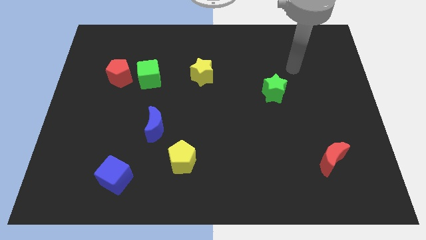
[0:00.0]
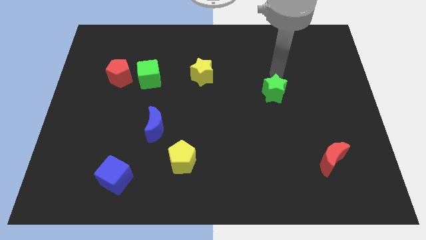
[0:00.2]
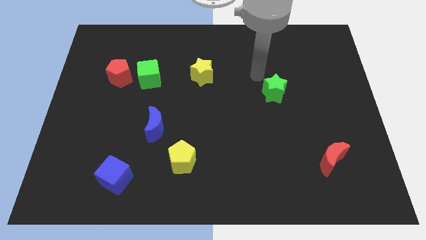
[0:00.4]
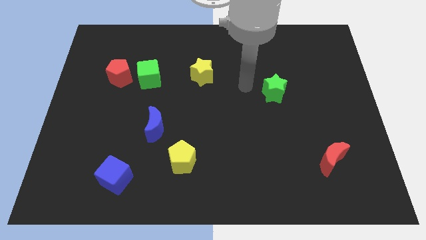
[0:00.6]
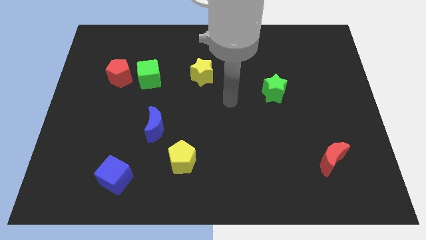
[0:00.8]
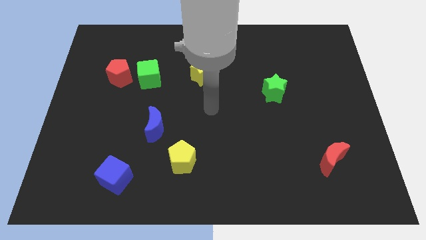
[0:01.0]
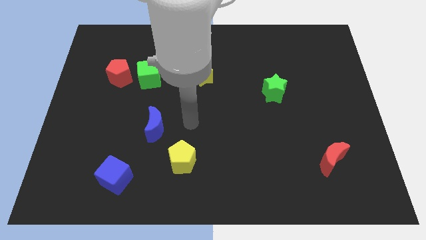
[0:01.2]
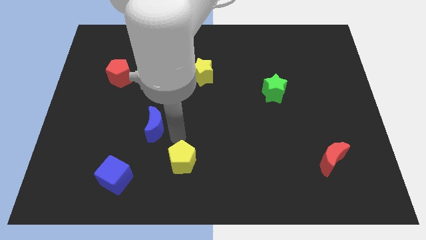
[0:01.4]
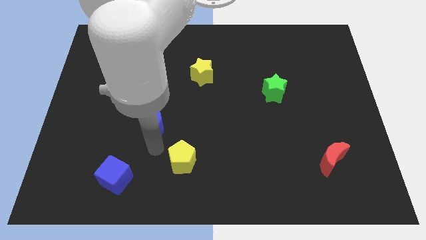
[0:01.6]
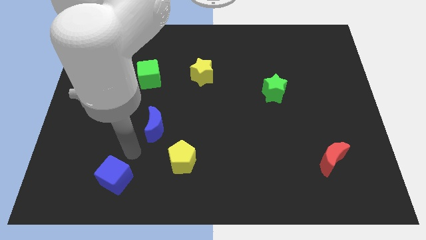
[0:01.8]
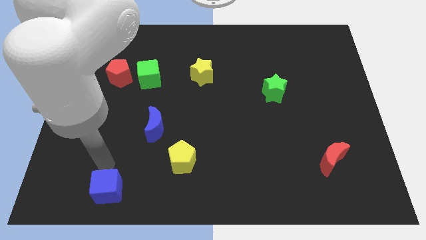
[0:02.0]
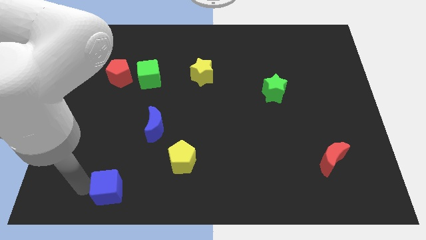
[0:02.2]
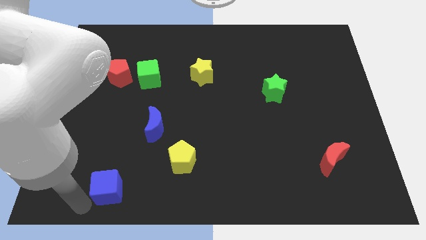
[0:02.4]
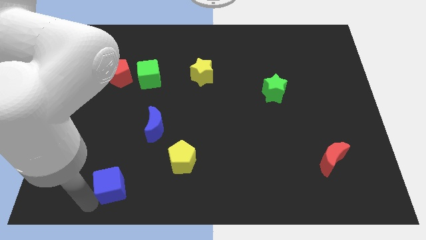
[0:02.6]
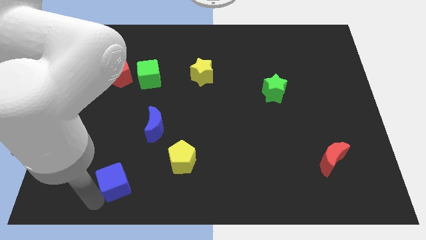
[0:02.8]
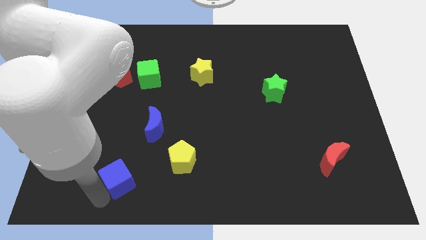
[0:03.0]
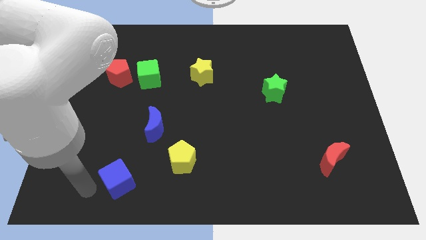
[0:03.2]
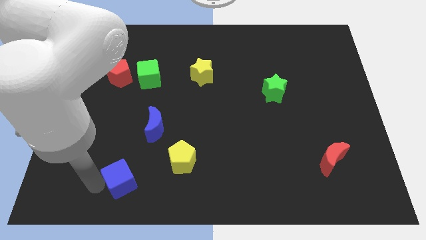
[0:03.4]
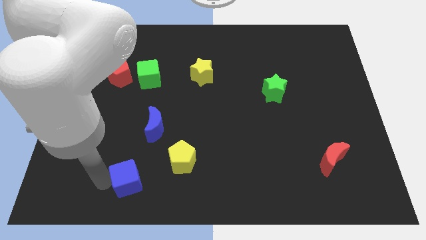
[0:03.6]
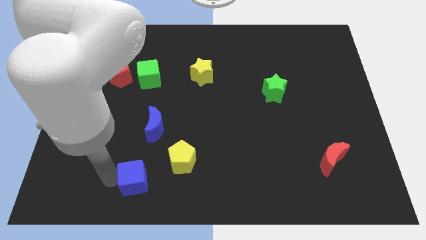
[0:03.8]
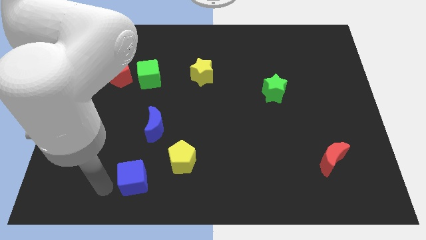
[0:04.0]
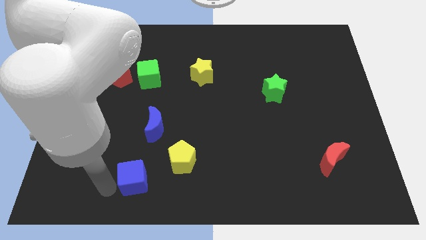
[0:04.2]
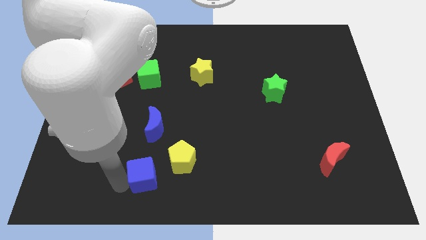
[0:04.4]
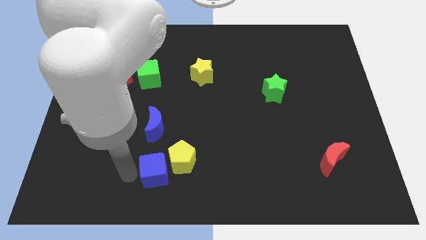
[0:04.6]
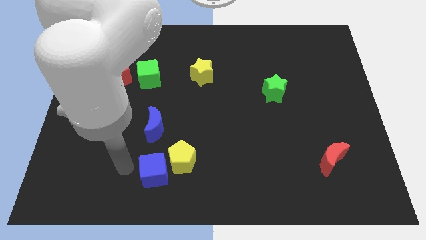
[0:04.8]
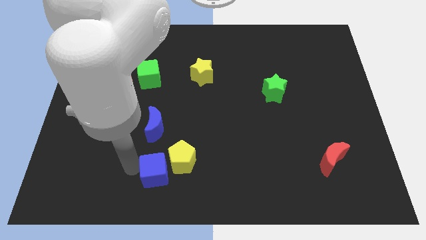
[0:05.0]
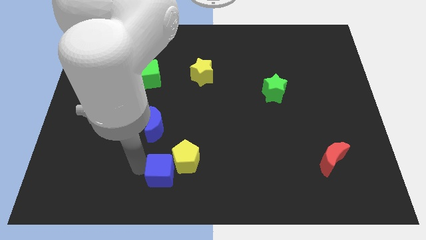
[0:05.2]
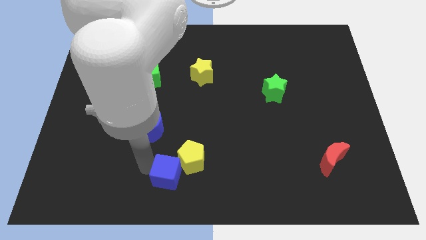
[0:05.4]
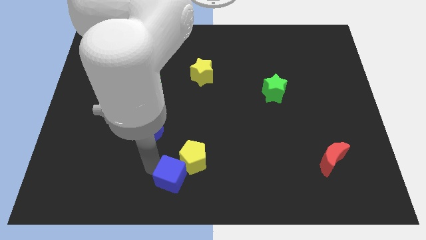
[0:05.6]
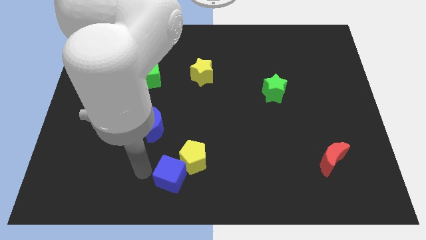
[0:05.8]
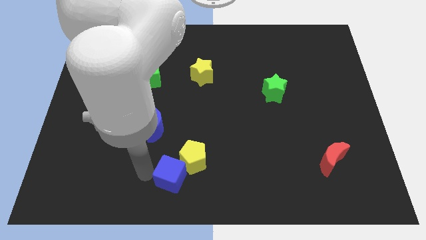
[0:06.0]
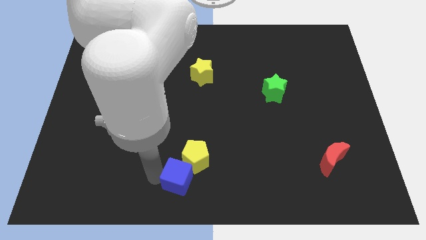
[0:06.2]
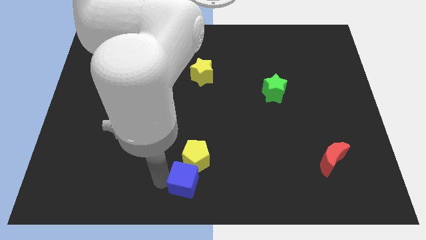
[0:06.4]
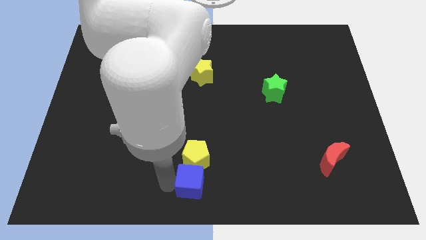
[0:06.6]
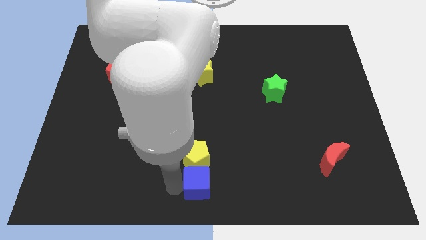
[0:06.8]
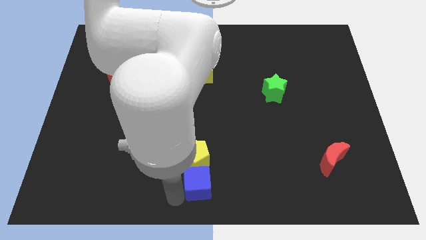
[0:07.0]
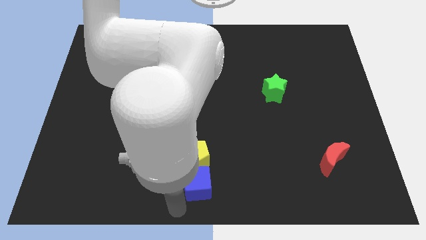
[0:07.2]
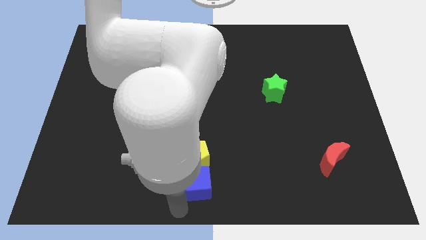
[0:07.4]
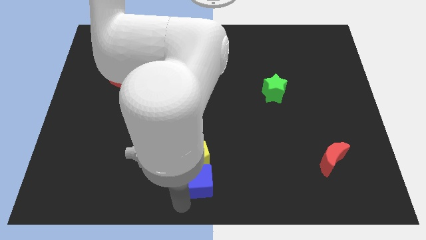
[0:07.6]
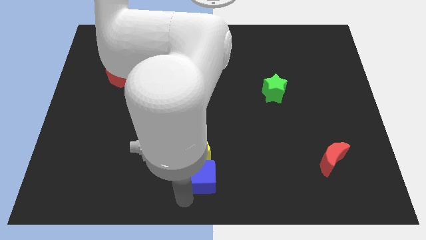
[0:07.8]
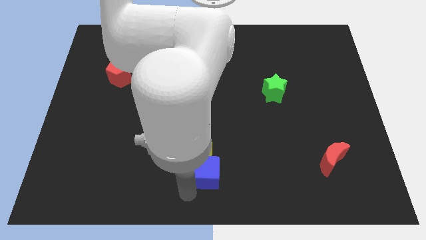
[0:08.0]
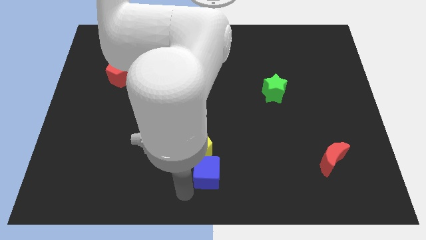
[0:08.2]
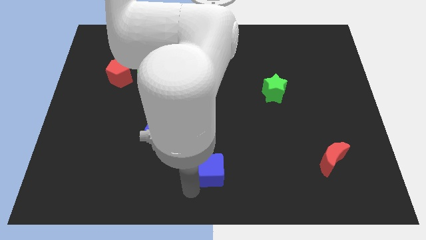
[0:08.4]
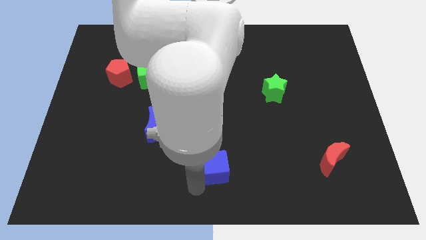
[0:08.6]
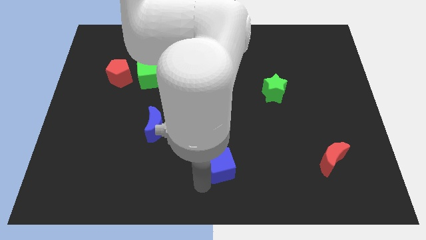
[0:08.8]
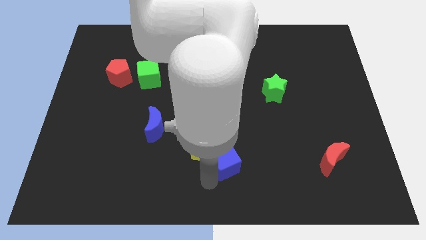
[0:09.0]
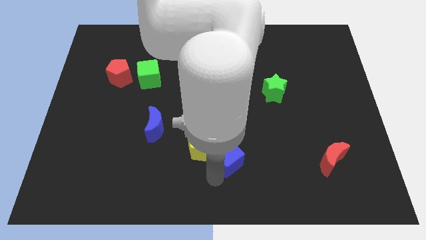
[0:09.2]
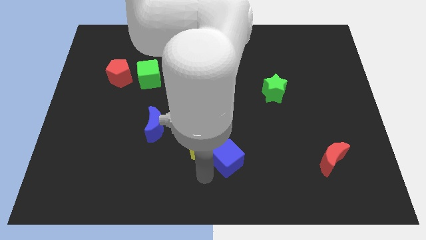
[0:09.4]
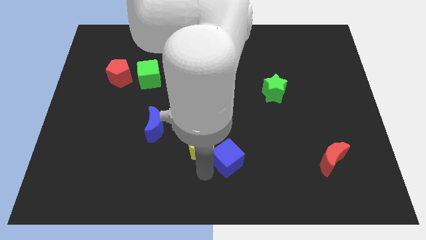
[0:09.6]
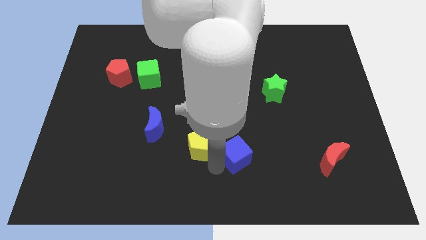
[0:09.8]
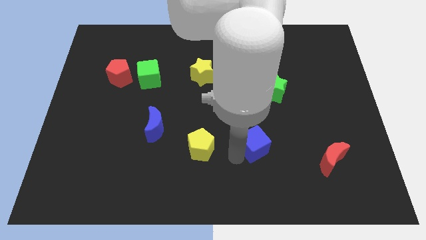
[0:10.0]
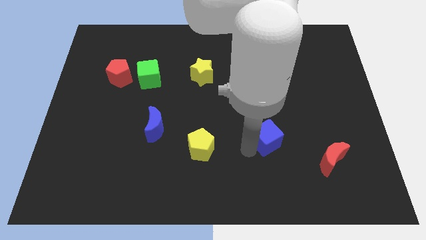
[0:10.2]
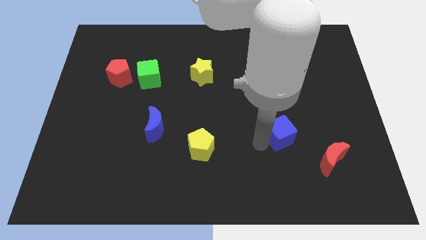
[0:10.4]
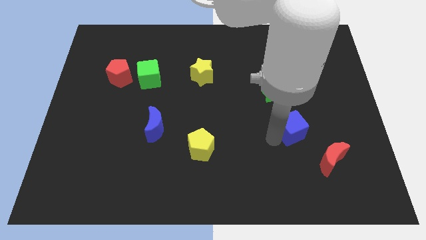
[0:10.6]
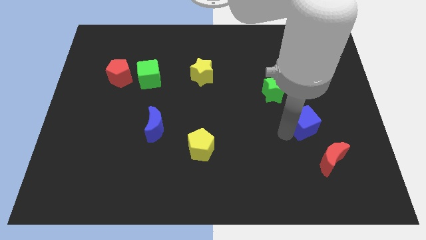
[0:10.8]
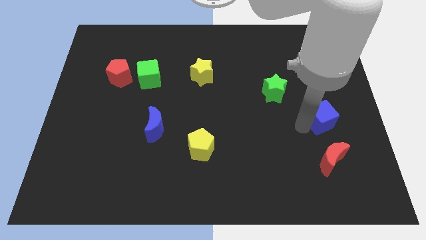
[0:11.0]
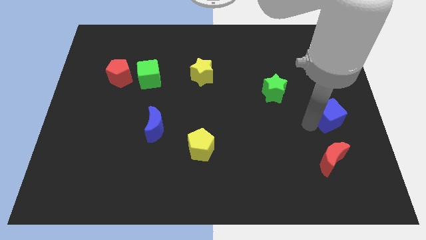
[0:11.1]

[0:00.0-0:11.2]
slide the blue cube to the right side

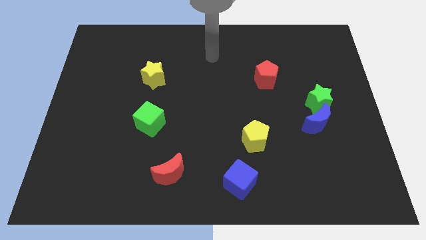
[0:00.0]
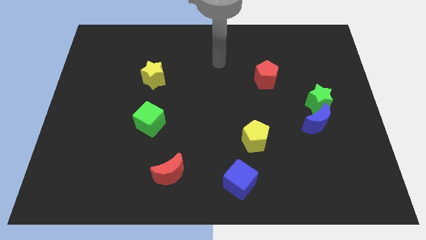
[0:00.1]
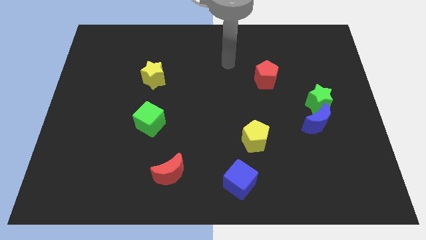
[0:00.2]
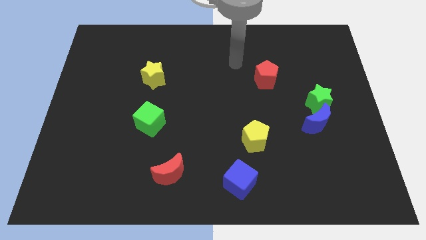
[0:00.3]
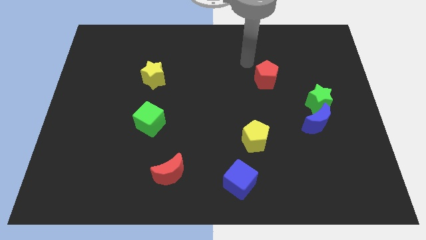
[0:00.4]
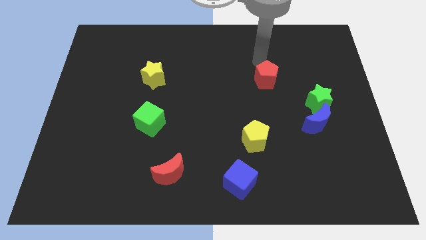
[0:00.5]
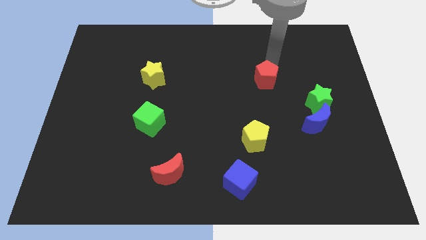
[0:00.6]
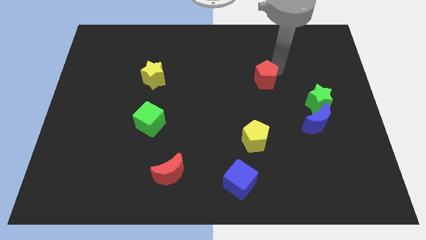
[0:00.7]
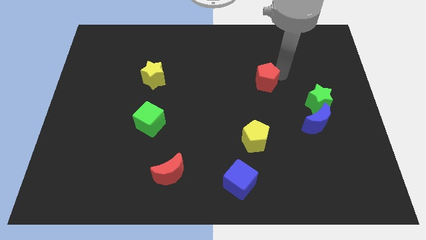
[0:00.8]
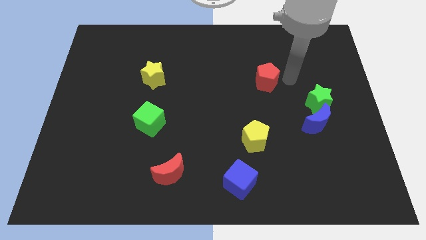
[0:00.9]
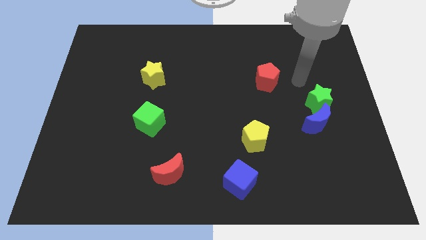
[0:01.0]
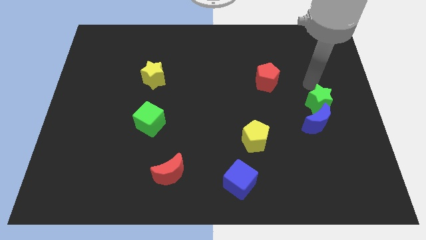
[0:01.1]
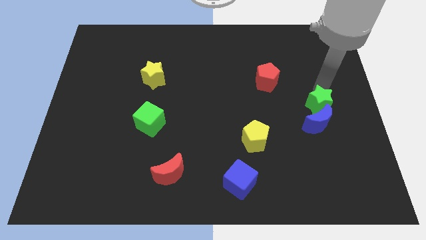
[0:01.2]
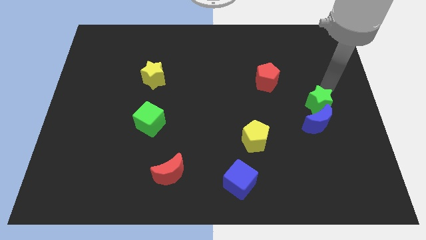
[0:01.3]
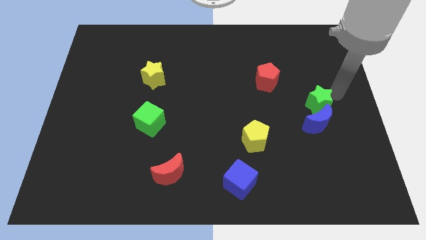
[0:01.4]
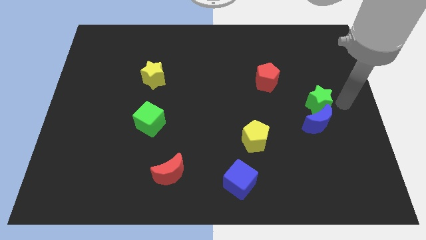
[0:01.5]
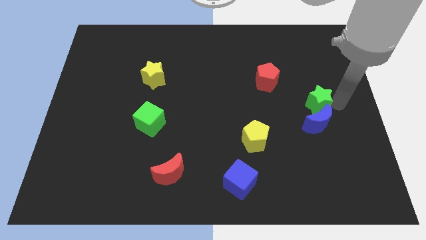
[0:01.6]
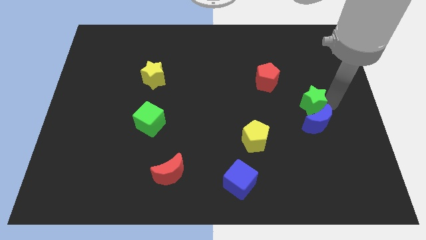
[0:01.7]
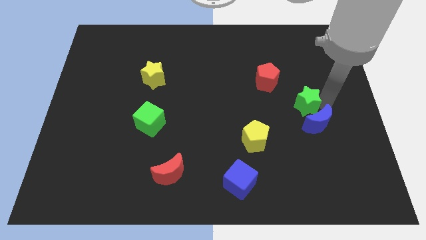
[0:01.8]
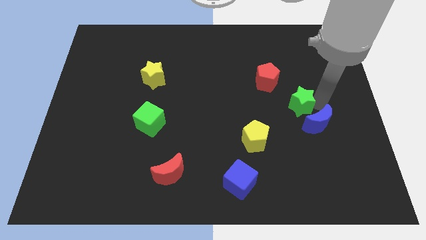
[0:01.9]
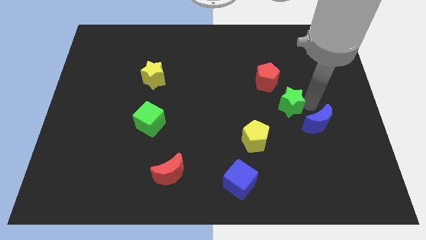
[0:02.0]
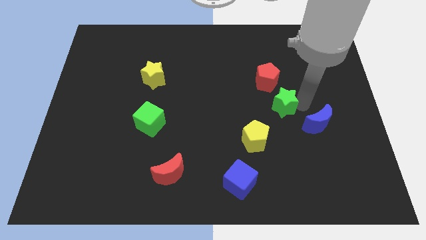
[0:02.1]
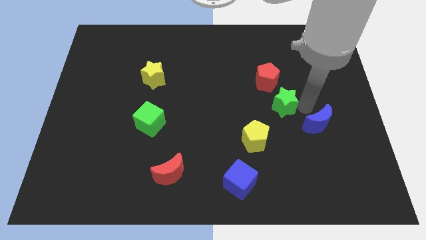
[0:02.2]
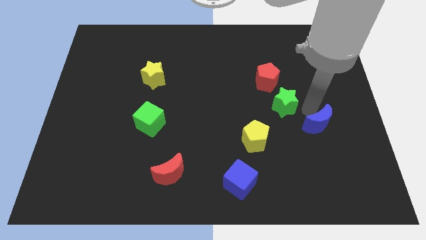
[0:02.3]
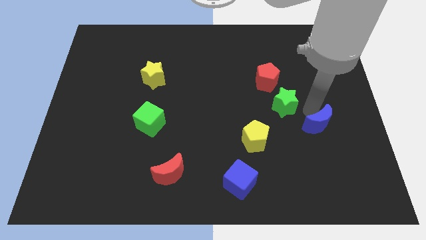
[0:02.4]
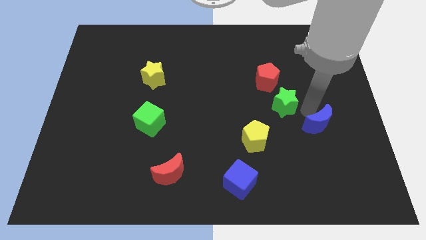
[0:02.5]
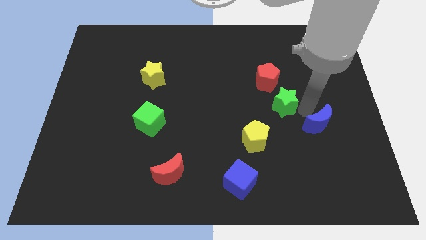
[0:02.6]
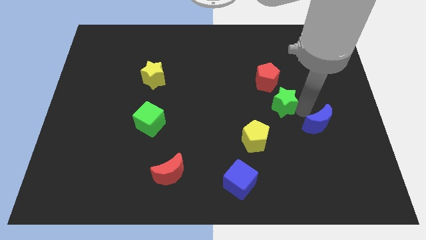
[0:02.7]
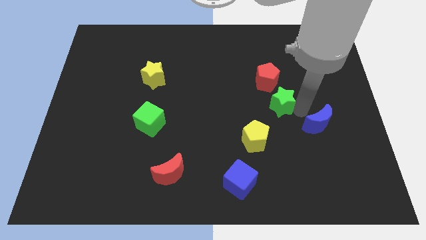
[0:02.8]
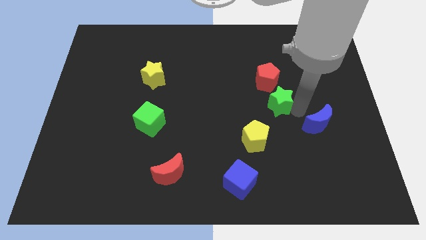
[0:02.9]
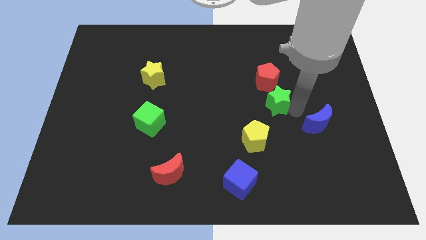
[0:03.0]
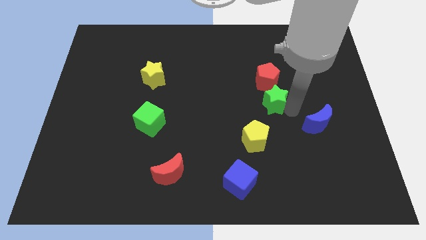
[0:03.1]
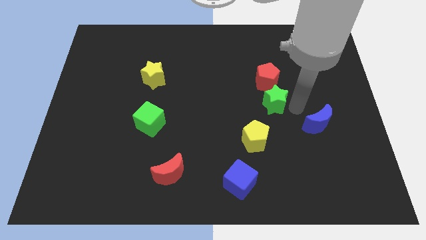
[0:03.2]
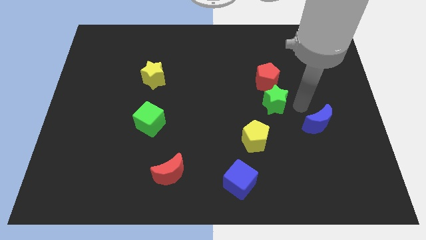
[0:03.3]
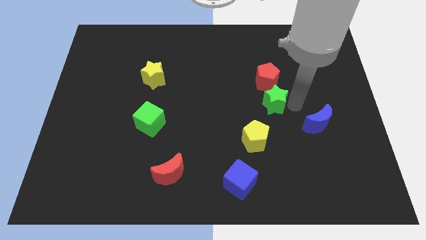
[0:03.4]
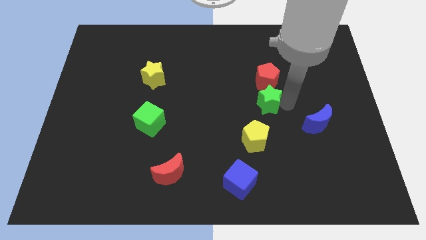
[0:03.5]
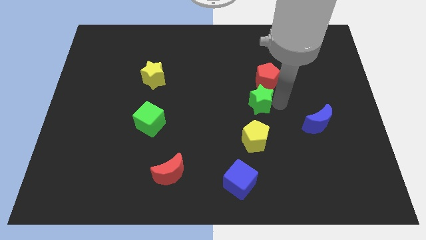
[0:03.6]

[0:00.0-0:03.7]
move the green star to the middle of the board
